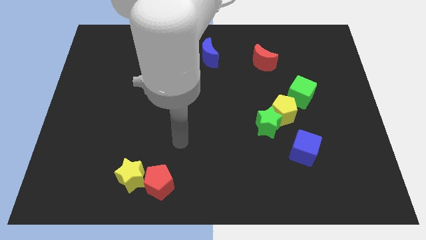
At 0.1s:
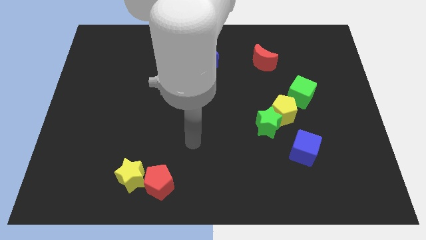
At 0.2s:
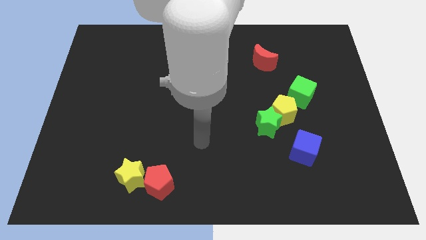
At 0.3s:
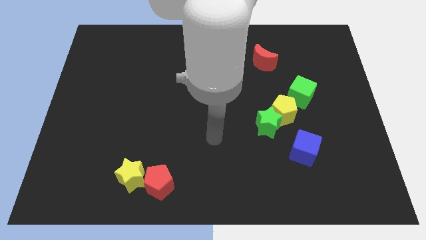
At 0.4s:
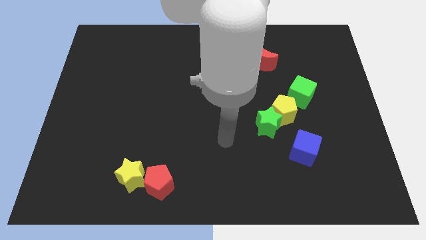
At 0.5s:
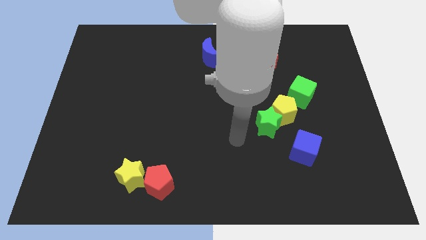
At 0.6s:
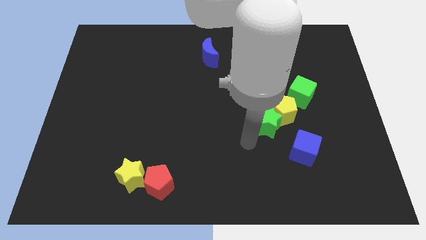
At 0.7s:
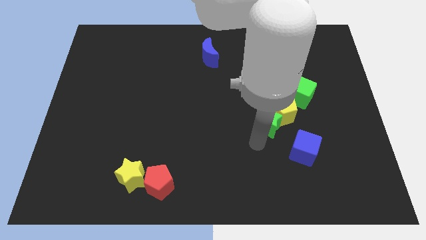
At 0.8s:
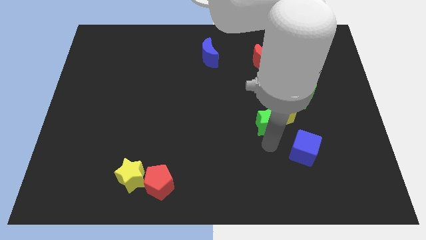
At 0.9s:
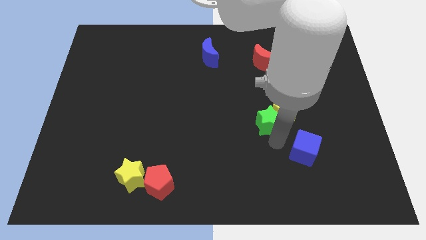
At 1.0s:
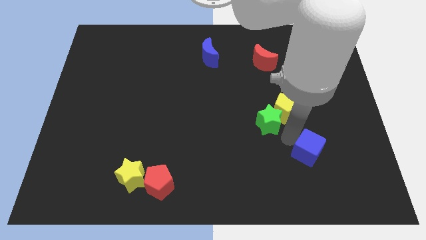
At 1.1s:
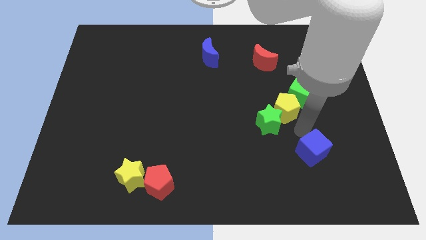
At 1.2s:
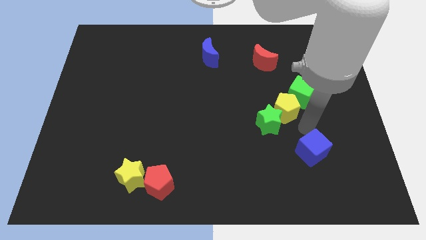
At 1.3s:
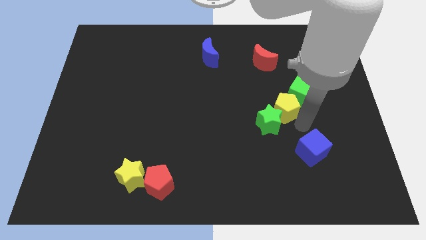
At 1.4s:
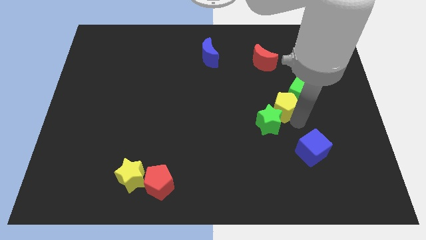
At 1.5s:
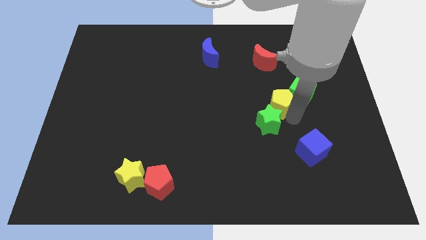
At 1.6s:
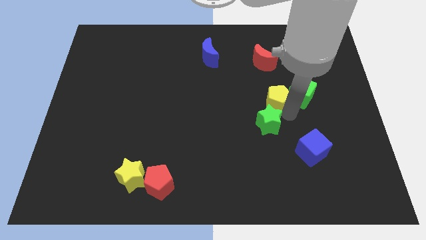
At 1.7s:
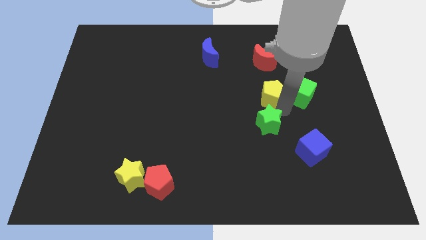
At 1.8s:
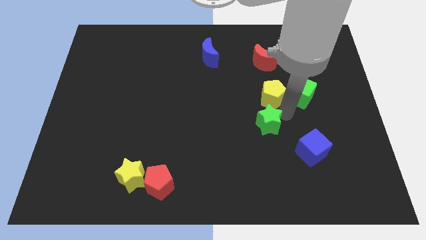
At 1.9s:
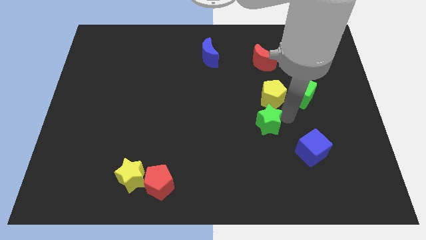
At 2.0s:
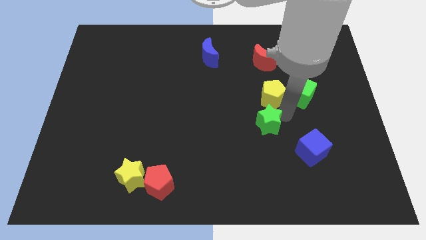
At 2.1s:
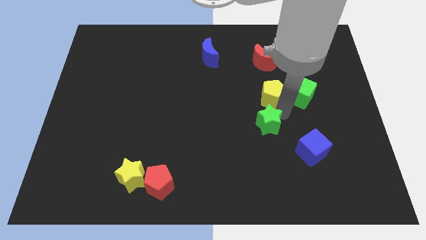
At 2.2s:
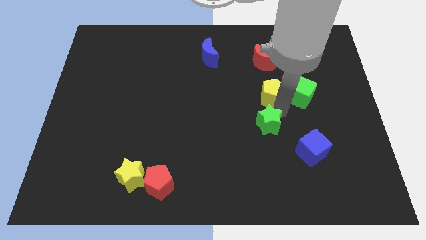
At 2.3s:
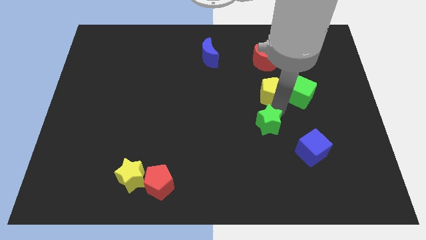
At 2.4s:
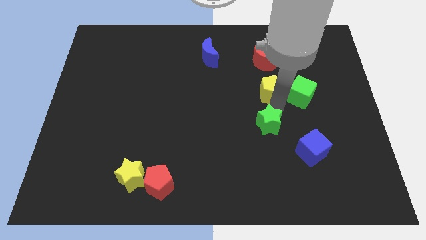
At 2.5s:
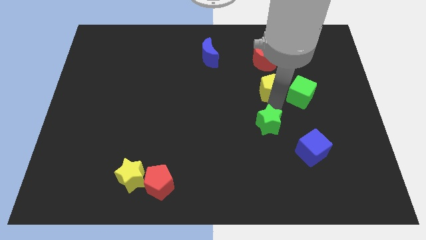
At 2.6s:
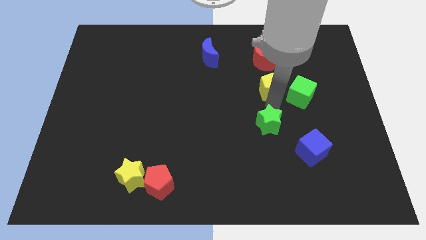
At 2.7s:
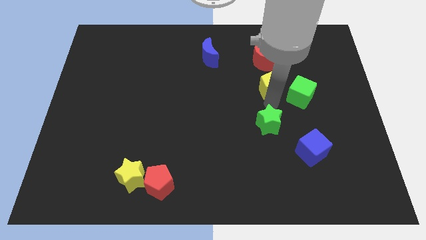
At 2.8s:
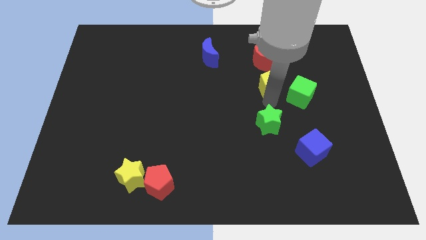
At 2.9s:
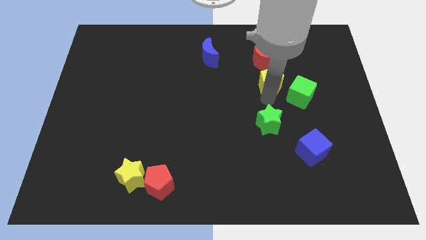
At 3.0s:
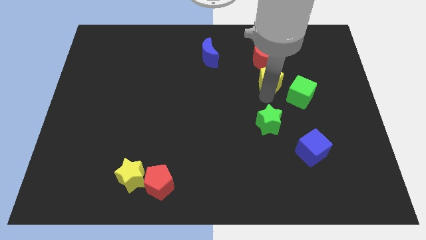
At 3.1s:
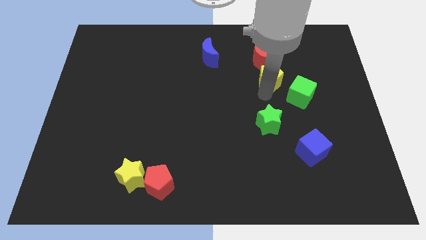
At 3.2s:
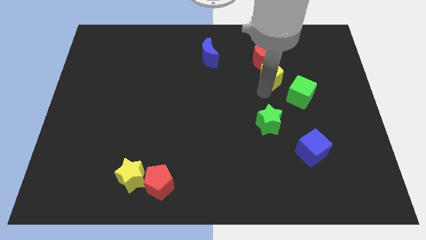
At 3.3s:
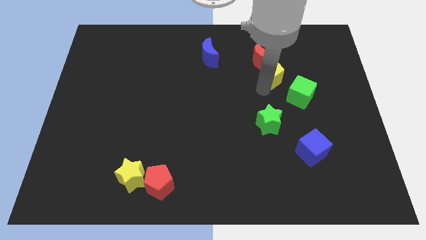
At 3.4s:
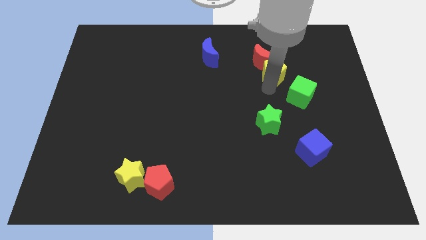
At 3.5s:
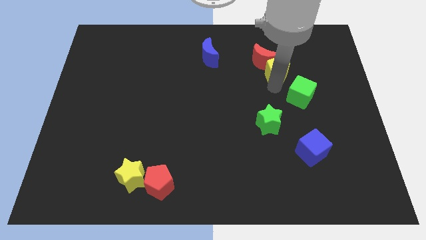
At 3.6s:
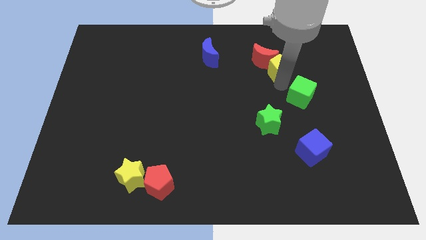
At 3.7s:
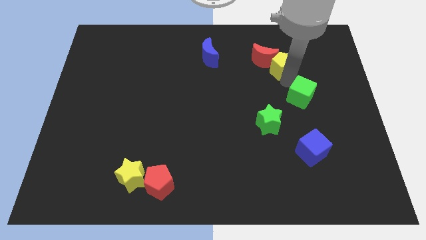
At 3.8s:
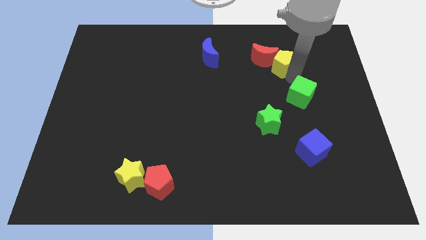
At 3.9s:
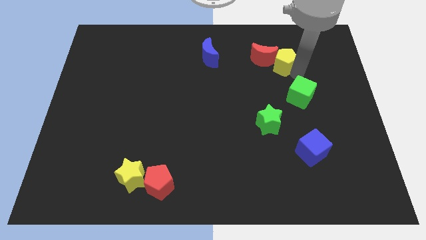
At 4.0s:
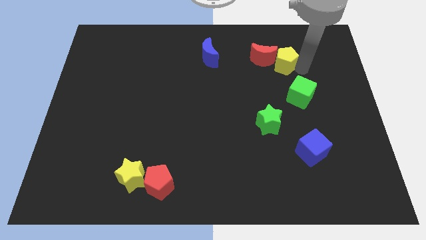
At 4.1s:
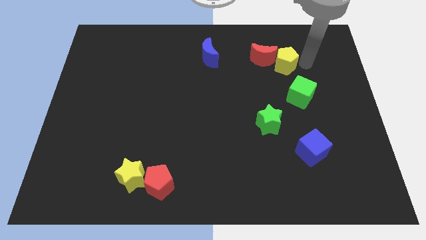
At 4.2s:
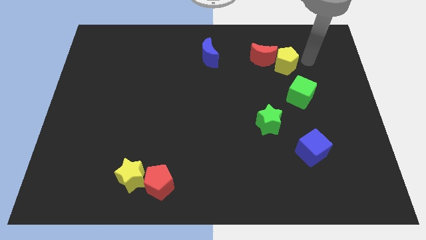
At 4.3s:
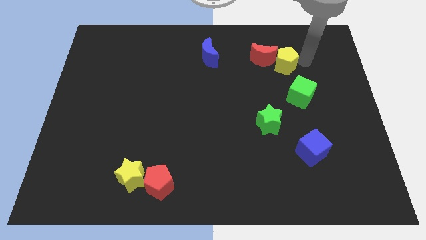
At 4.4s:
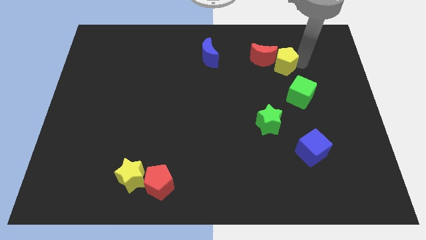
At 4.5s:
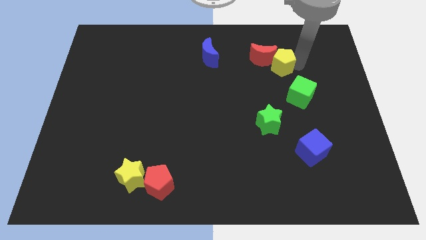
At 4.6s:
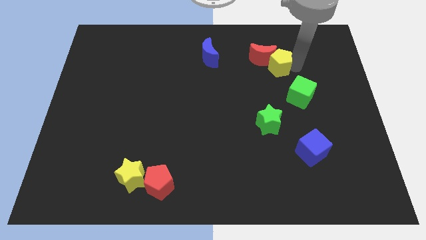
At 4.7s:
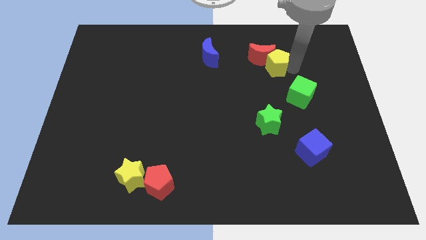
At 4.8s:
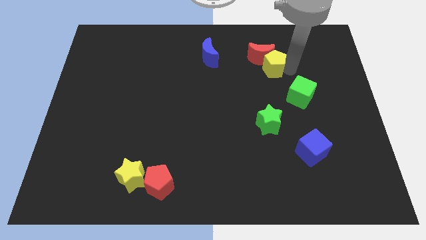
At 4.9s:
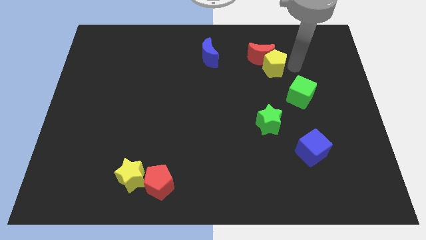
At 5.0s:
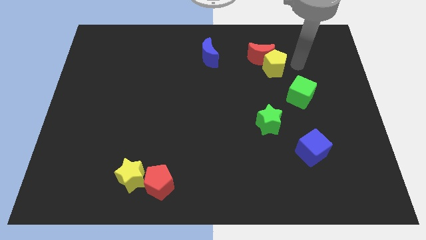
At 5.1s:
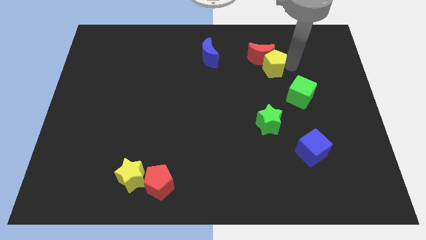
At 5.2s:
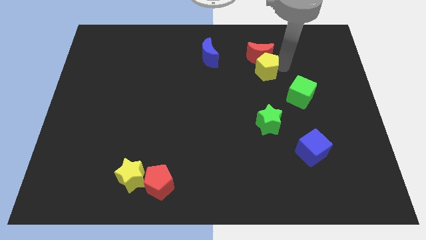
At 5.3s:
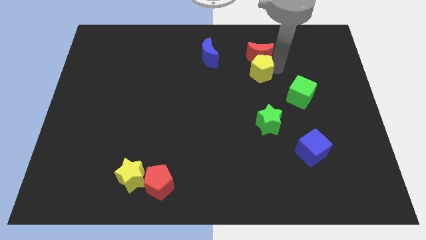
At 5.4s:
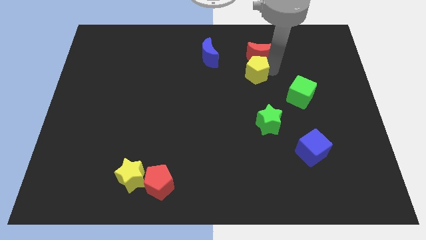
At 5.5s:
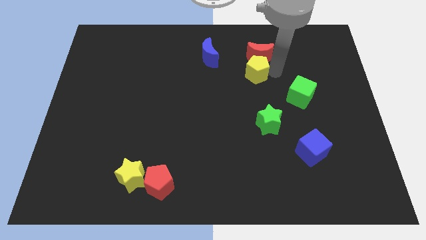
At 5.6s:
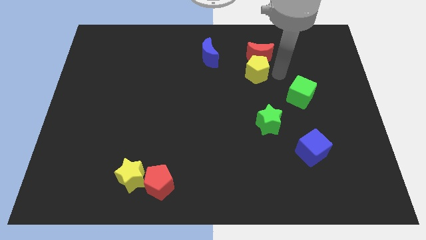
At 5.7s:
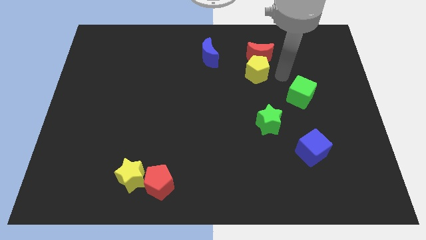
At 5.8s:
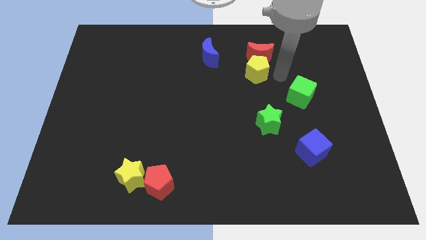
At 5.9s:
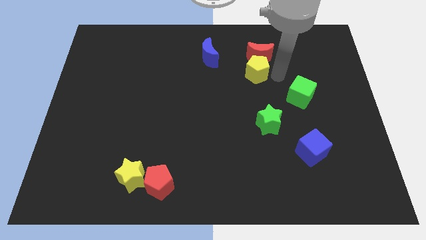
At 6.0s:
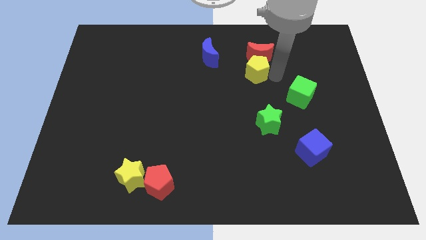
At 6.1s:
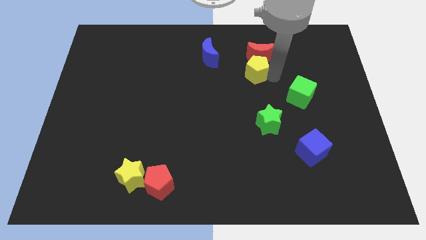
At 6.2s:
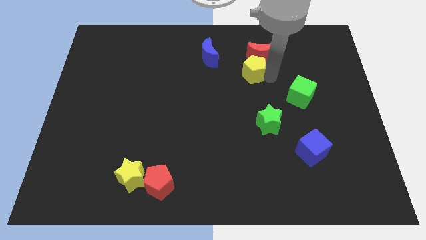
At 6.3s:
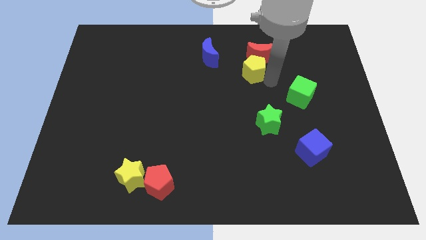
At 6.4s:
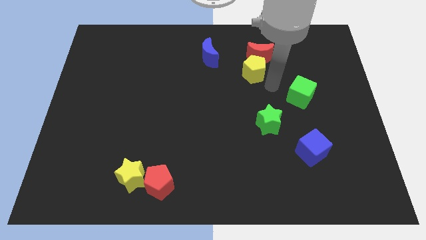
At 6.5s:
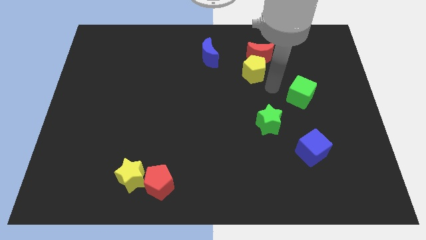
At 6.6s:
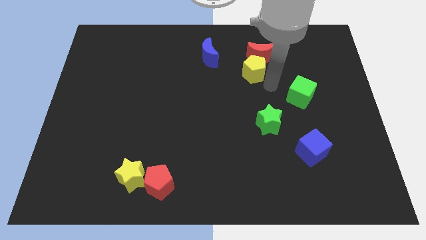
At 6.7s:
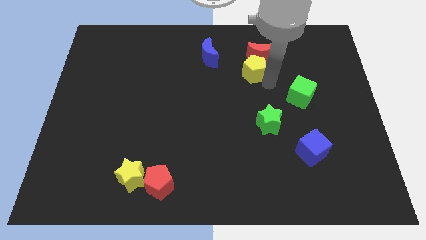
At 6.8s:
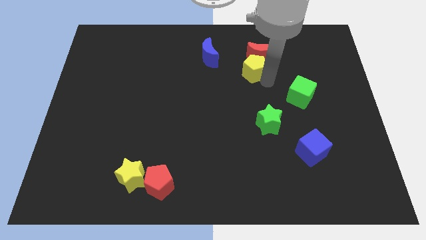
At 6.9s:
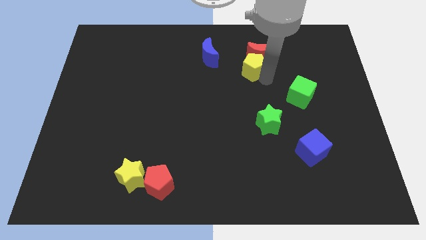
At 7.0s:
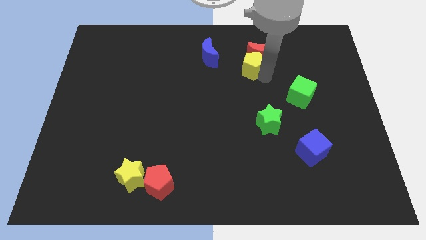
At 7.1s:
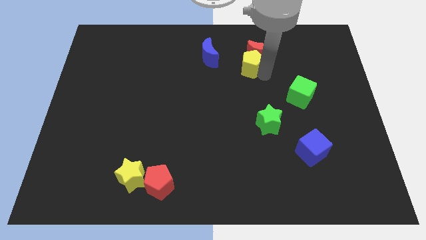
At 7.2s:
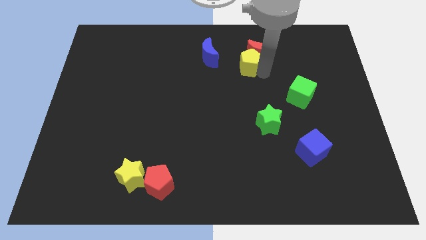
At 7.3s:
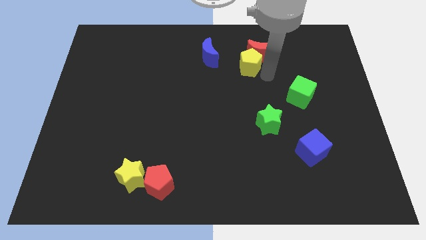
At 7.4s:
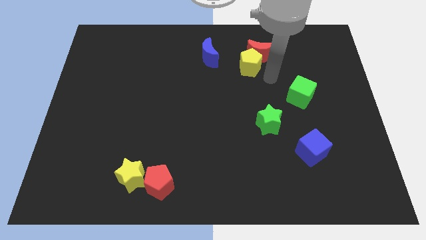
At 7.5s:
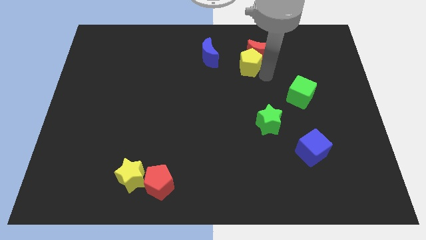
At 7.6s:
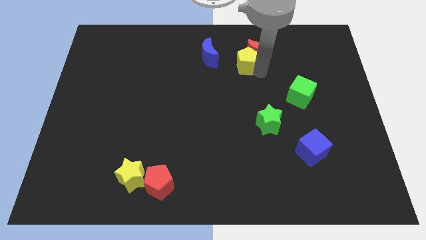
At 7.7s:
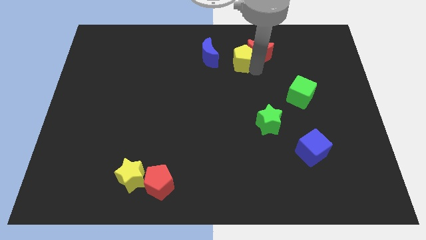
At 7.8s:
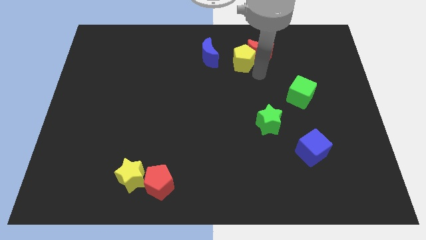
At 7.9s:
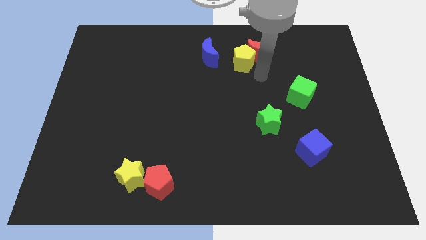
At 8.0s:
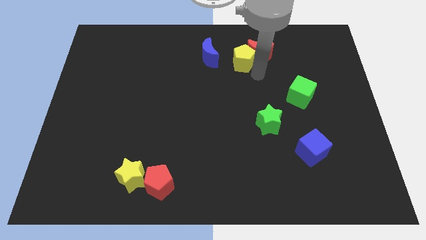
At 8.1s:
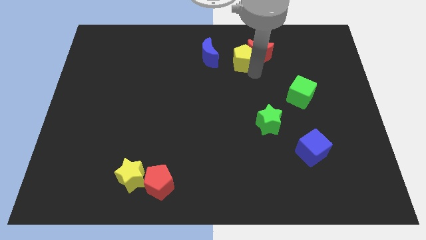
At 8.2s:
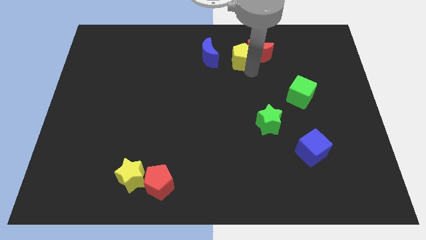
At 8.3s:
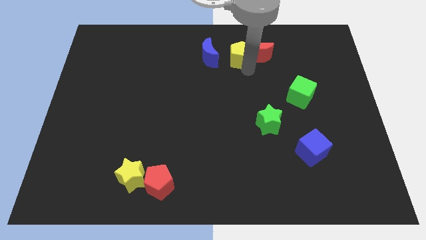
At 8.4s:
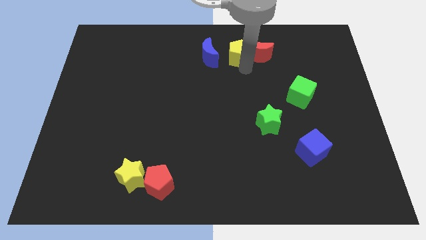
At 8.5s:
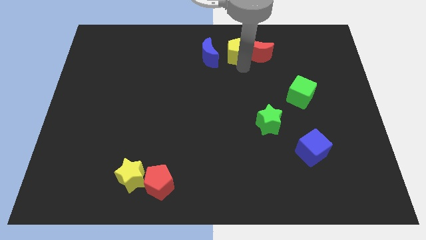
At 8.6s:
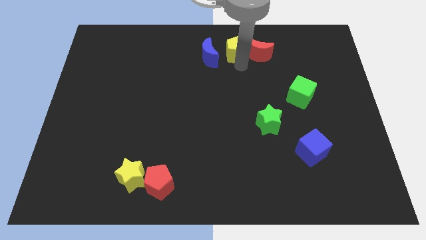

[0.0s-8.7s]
slide the yellow pentagon to the top side
